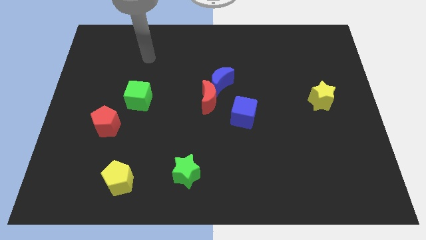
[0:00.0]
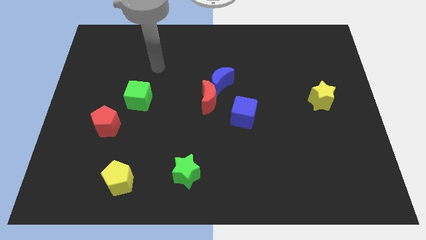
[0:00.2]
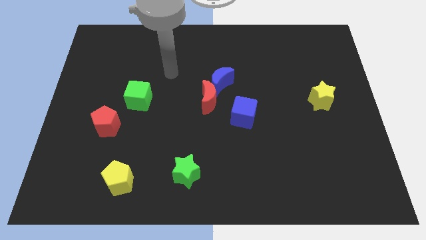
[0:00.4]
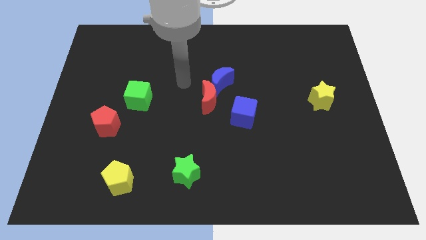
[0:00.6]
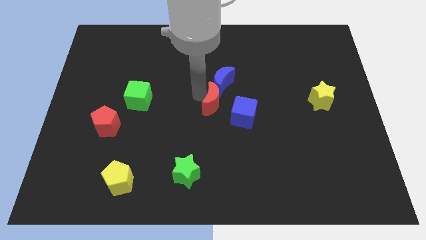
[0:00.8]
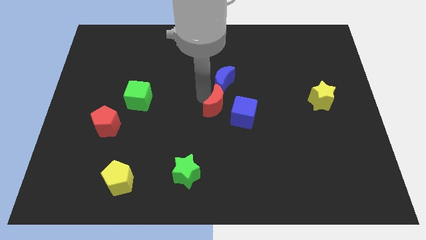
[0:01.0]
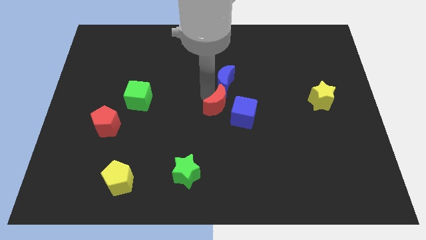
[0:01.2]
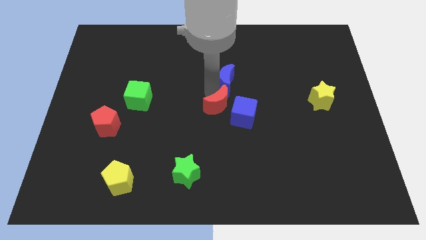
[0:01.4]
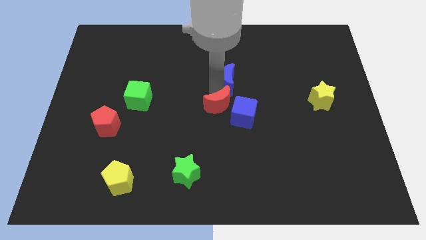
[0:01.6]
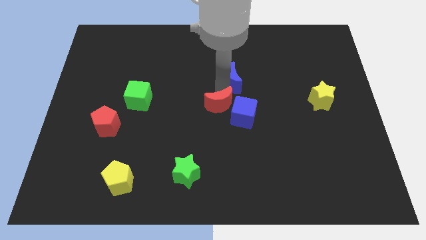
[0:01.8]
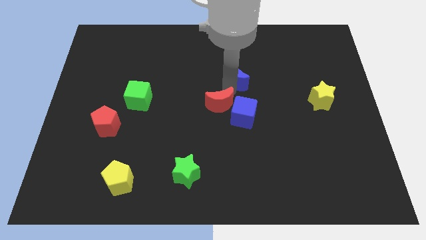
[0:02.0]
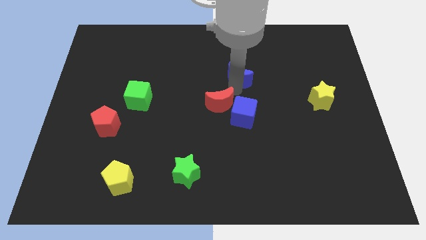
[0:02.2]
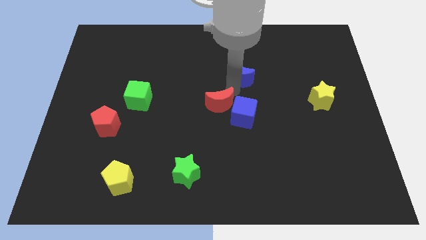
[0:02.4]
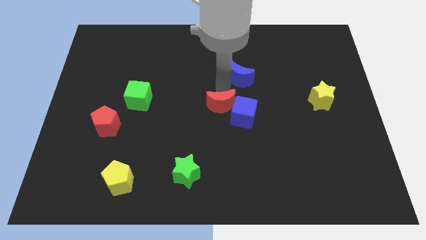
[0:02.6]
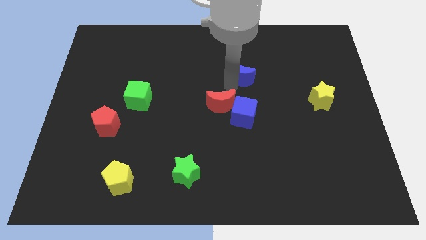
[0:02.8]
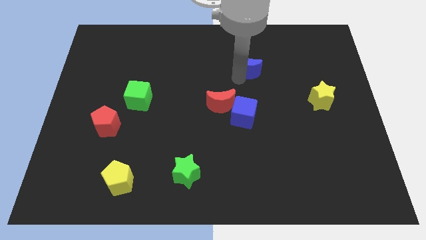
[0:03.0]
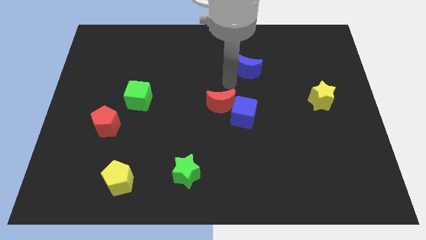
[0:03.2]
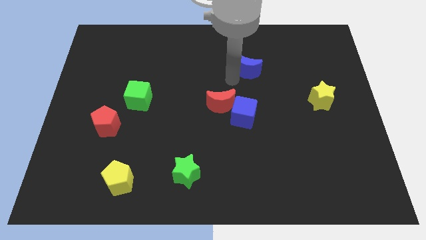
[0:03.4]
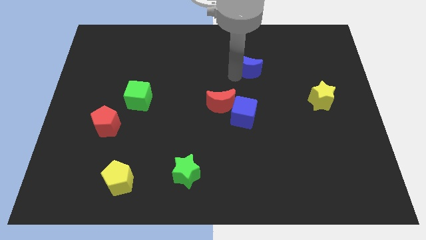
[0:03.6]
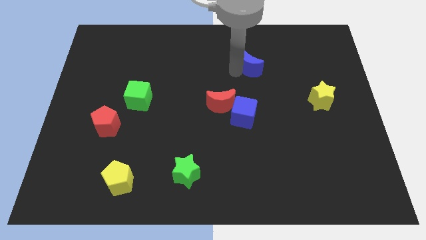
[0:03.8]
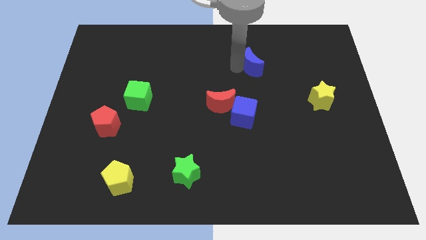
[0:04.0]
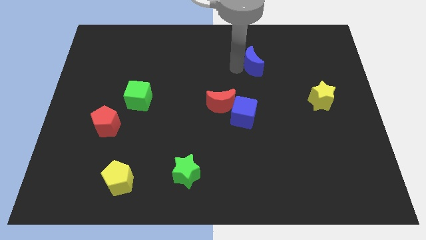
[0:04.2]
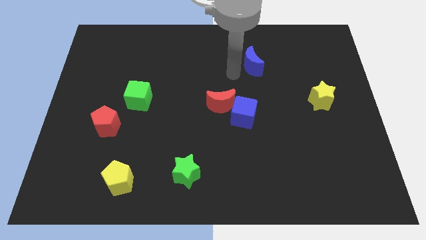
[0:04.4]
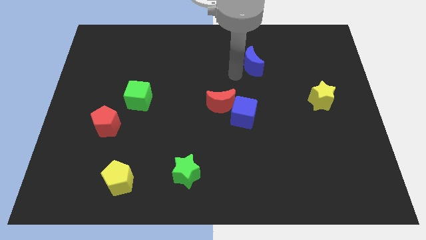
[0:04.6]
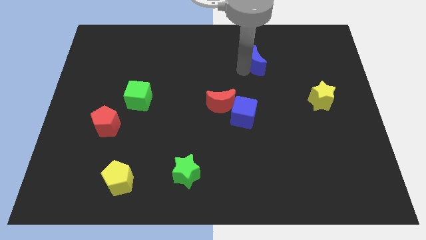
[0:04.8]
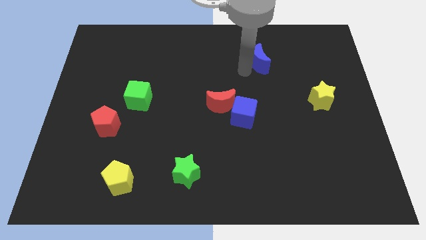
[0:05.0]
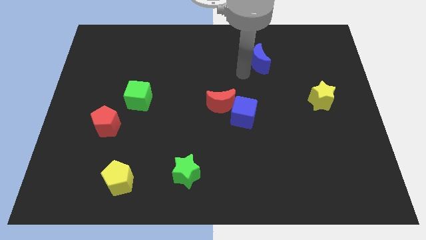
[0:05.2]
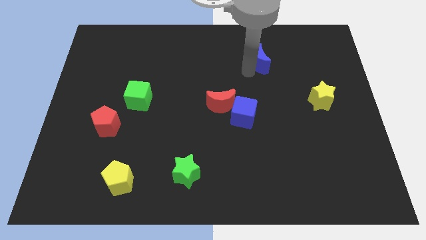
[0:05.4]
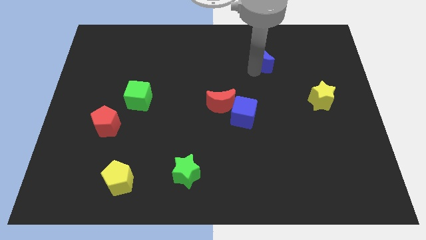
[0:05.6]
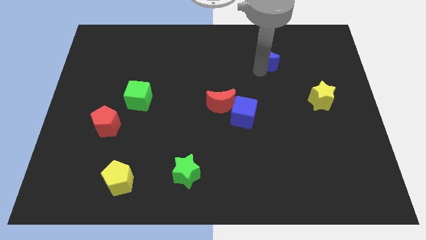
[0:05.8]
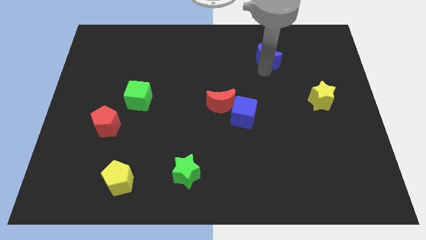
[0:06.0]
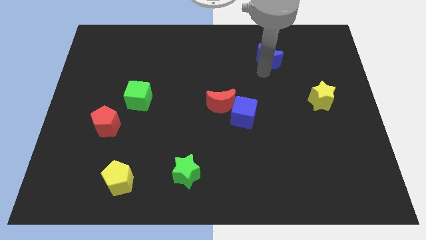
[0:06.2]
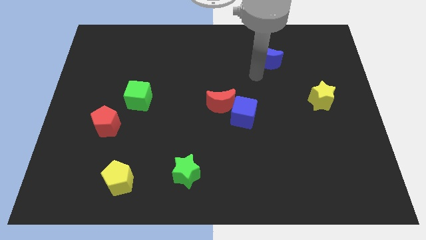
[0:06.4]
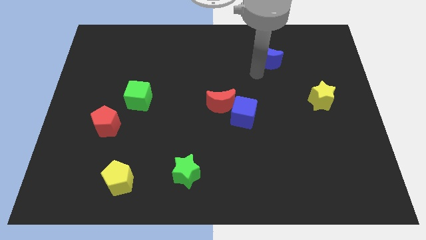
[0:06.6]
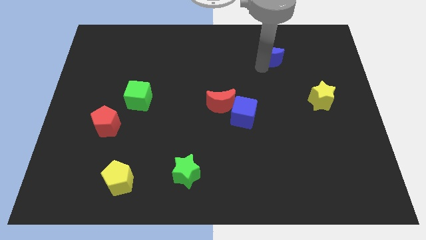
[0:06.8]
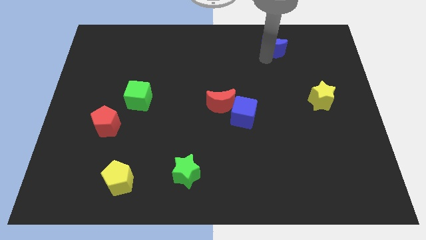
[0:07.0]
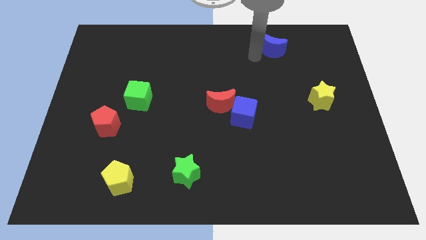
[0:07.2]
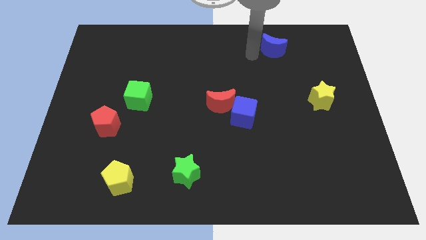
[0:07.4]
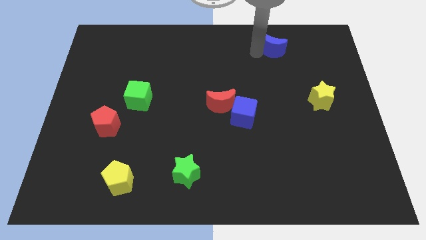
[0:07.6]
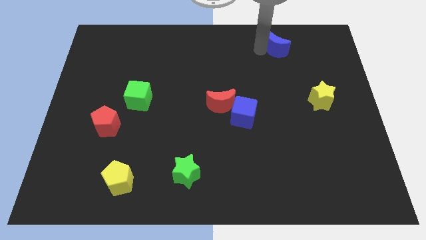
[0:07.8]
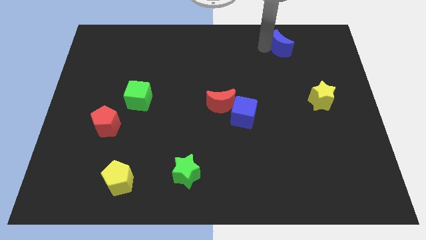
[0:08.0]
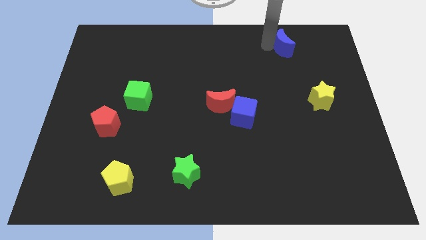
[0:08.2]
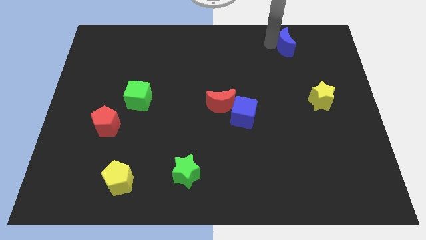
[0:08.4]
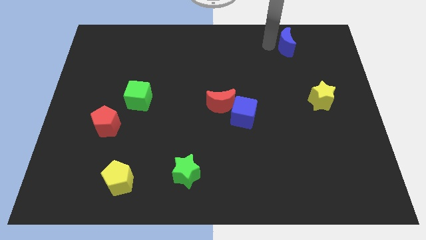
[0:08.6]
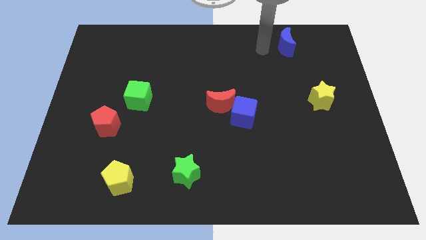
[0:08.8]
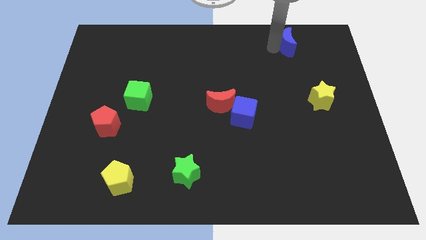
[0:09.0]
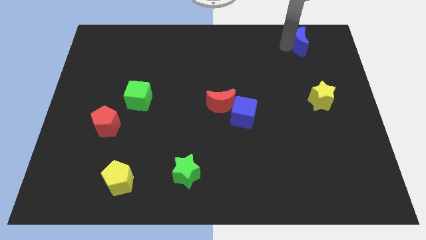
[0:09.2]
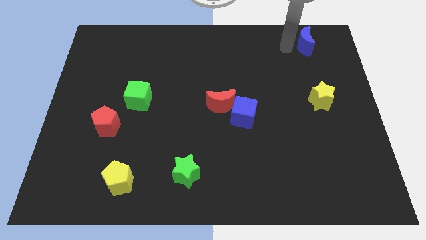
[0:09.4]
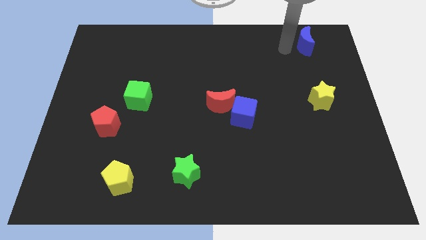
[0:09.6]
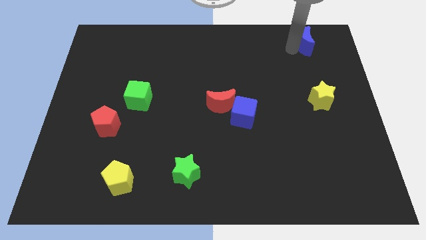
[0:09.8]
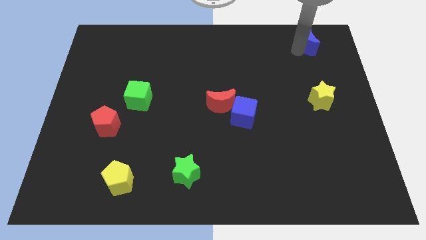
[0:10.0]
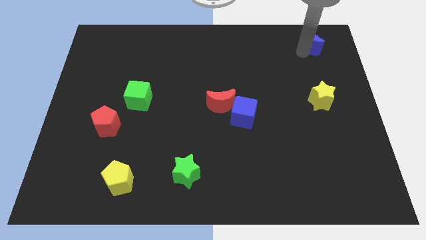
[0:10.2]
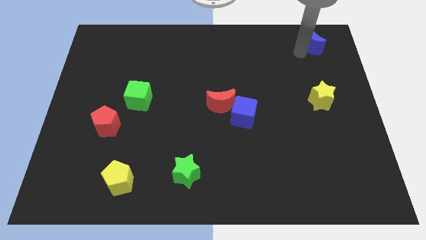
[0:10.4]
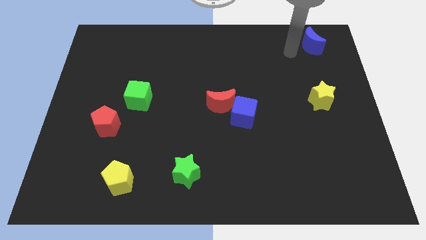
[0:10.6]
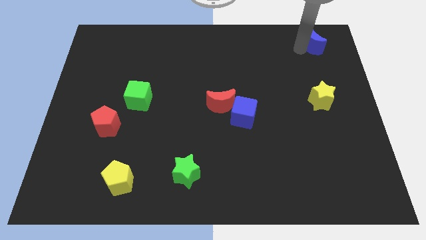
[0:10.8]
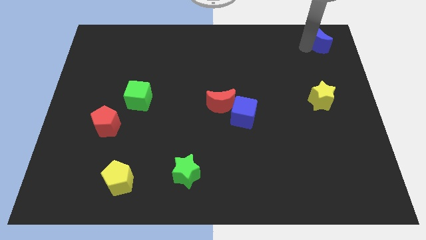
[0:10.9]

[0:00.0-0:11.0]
put the blue moon to the top right of the board
